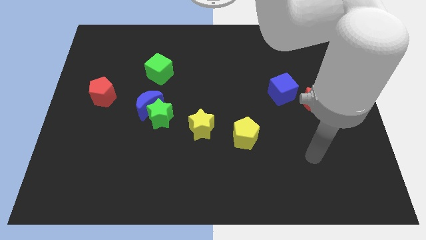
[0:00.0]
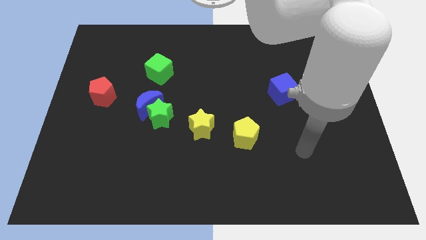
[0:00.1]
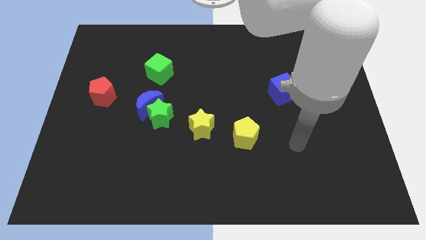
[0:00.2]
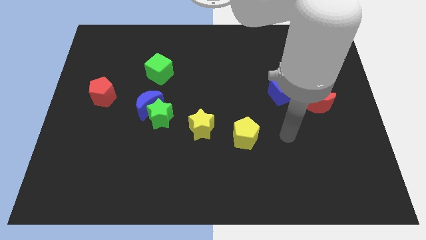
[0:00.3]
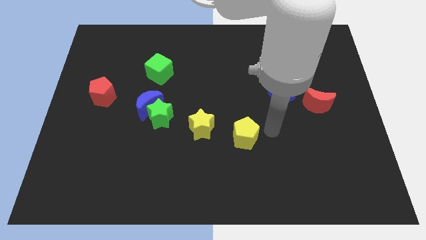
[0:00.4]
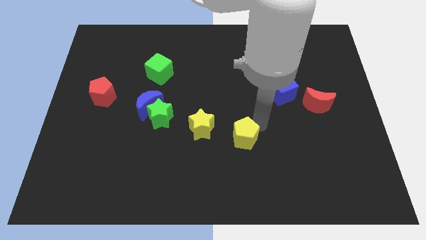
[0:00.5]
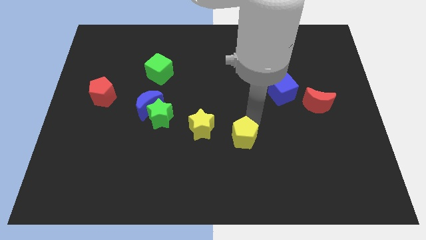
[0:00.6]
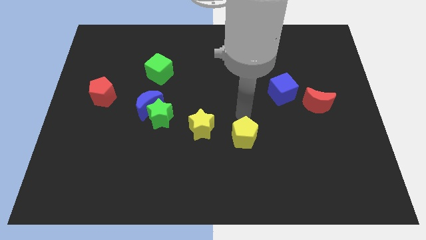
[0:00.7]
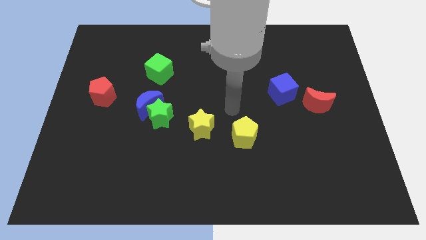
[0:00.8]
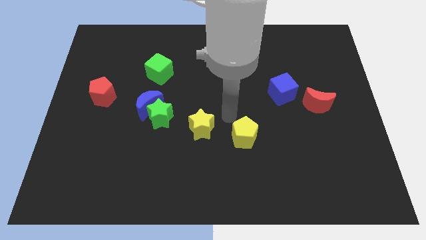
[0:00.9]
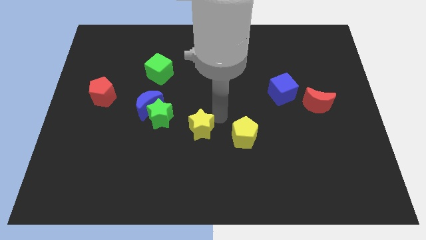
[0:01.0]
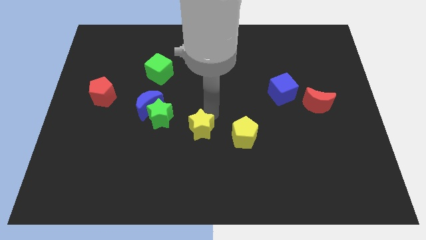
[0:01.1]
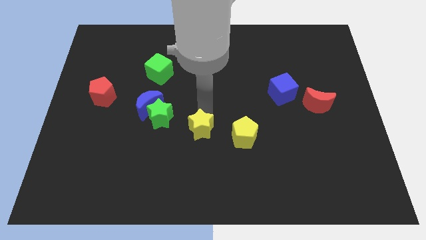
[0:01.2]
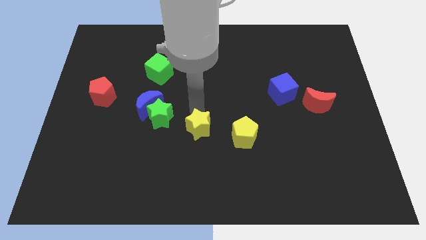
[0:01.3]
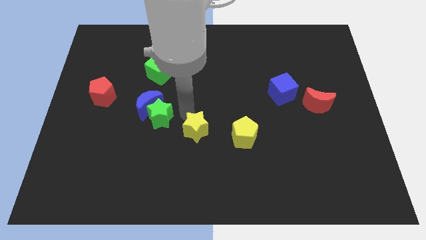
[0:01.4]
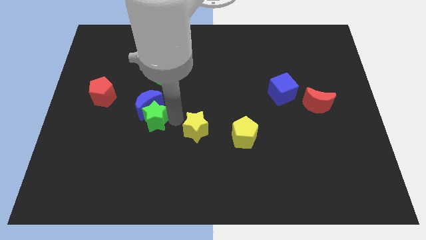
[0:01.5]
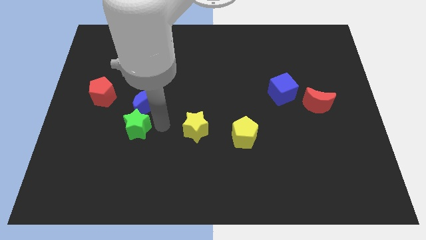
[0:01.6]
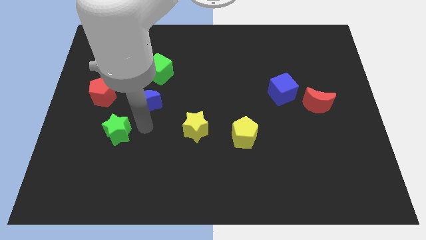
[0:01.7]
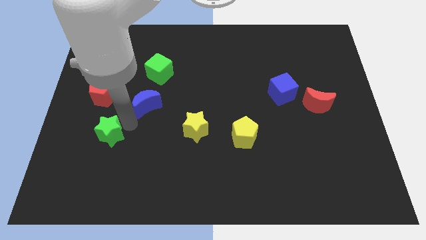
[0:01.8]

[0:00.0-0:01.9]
separate the blue moon from the green star

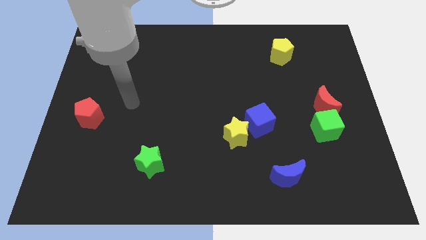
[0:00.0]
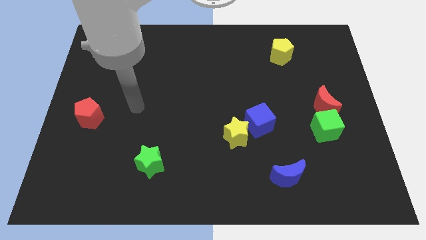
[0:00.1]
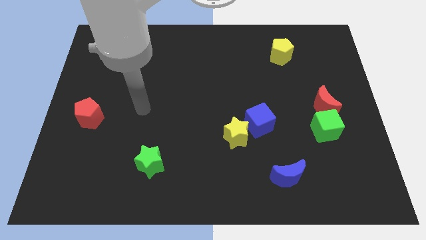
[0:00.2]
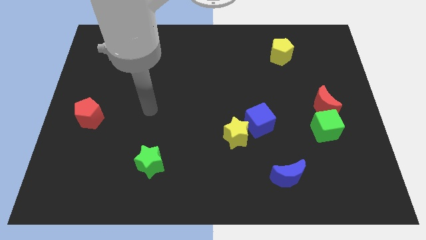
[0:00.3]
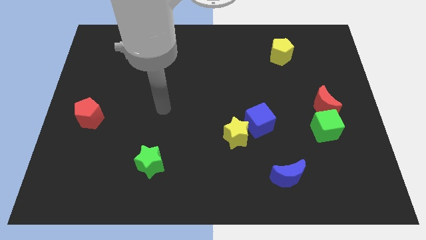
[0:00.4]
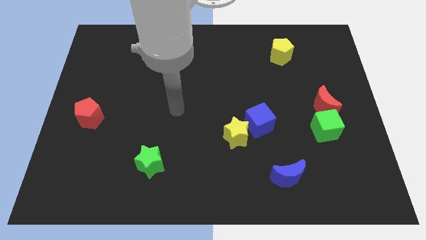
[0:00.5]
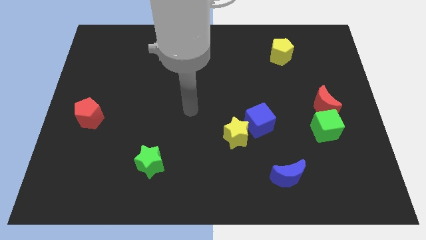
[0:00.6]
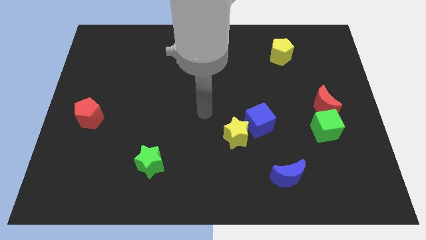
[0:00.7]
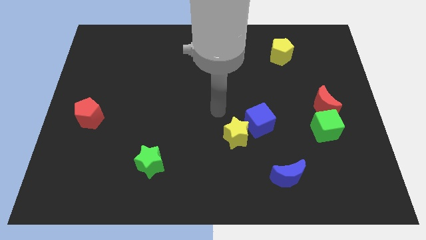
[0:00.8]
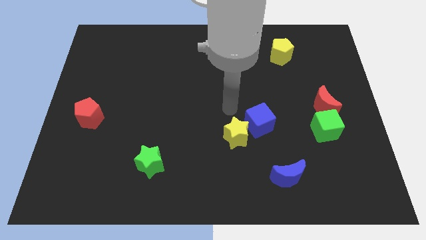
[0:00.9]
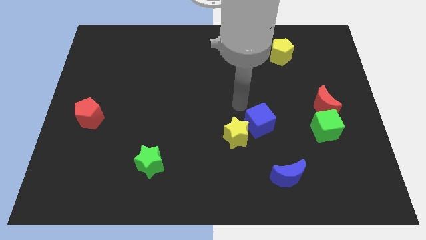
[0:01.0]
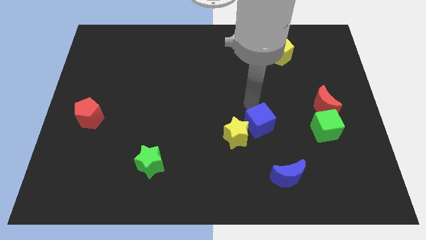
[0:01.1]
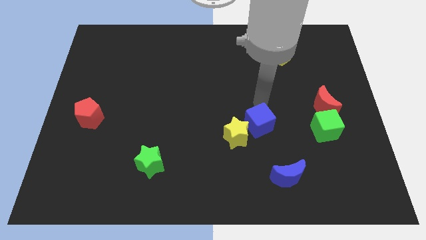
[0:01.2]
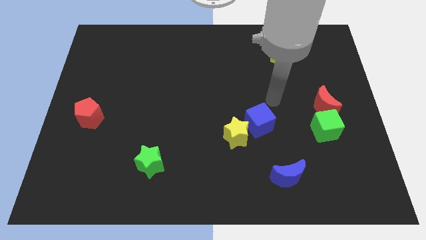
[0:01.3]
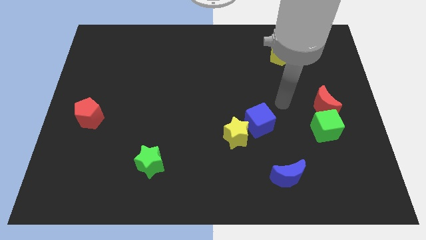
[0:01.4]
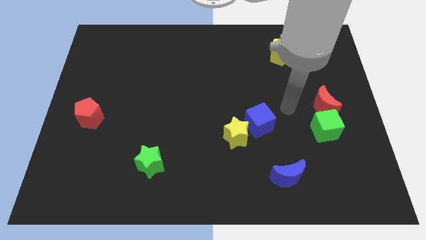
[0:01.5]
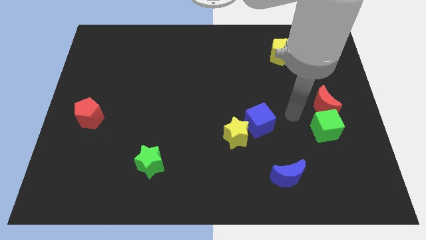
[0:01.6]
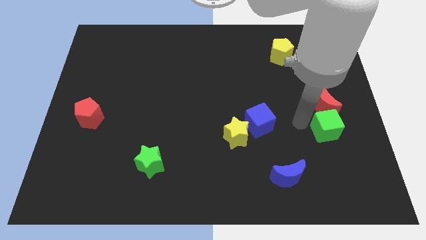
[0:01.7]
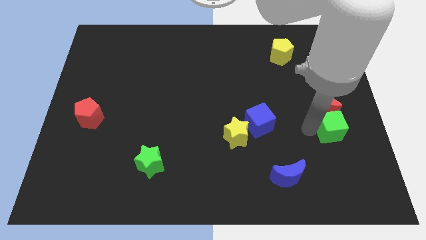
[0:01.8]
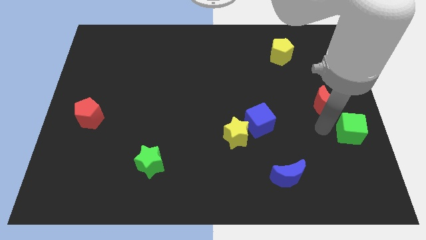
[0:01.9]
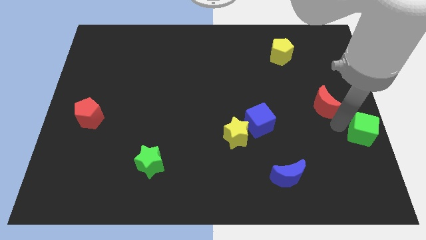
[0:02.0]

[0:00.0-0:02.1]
pull the red moon apart from the green cube

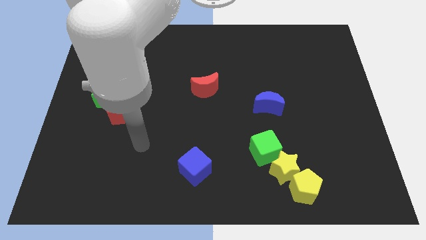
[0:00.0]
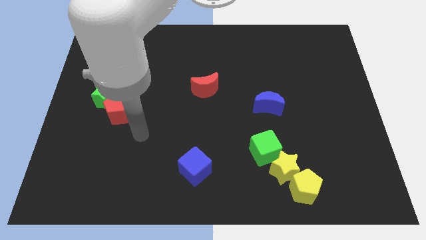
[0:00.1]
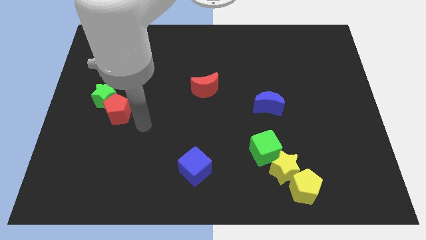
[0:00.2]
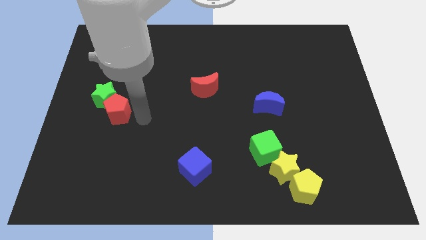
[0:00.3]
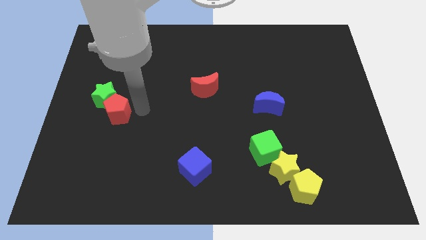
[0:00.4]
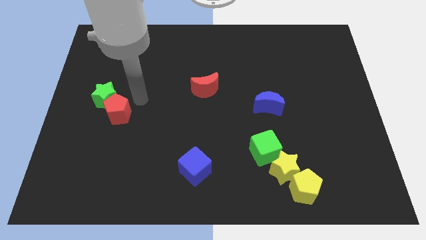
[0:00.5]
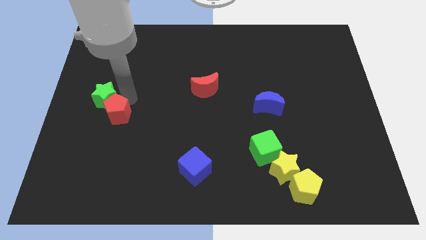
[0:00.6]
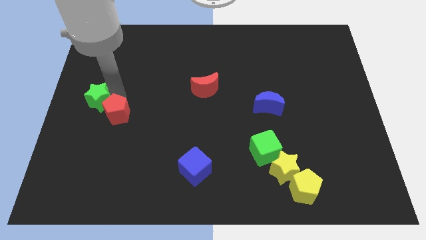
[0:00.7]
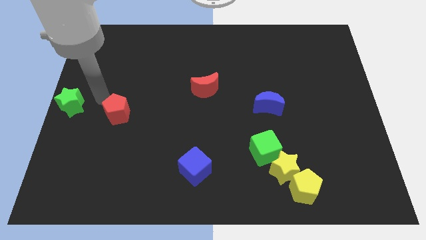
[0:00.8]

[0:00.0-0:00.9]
pull the red pentagon apart from the green star

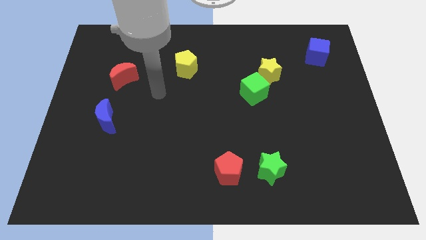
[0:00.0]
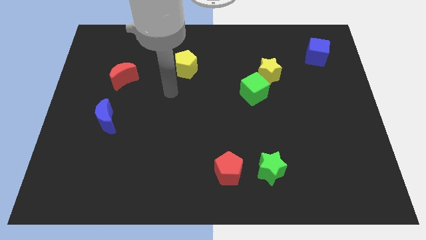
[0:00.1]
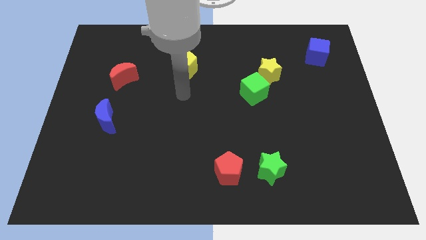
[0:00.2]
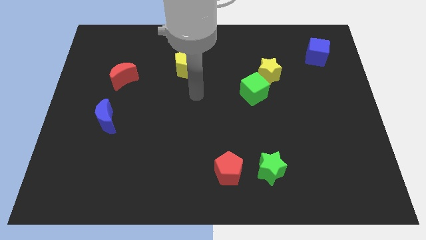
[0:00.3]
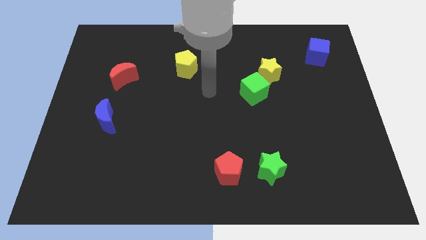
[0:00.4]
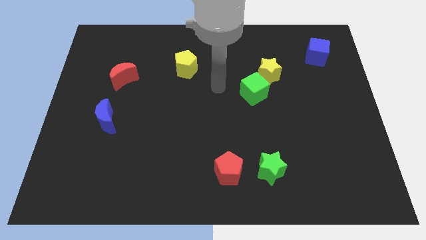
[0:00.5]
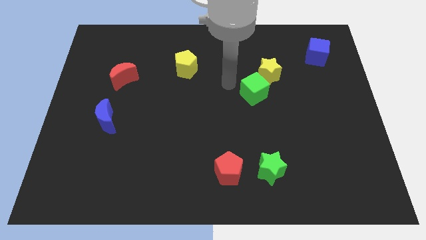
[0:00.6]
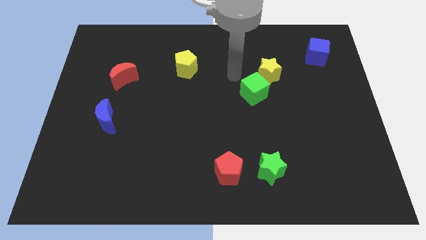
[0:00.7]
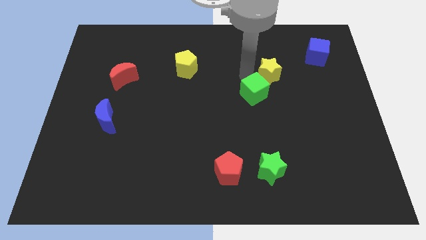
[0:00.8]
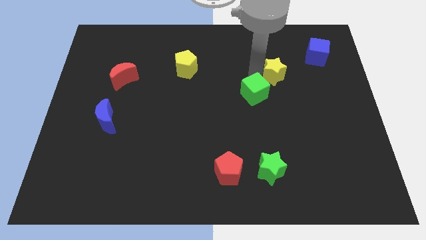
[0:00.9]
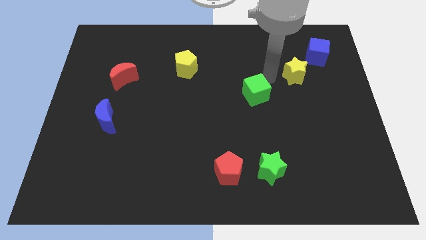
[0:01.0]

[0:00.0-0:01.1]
separate the green cube from the yellow star

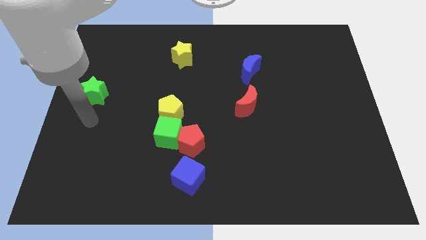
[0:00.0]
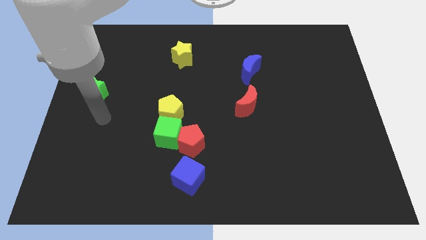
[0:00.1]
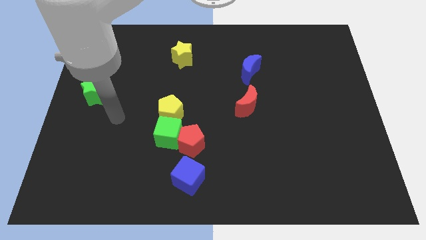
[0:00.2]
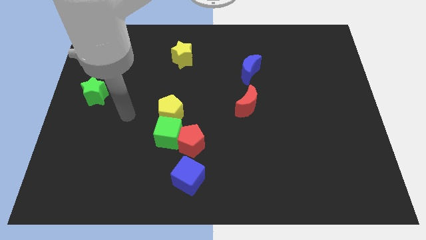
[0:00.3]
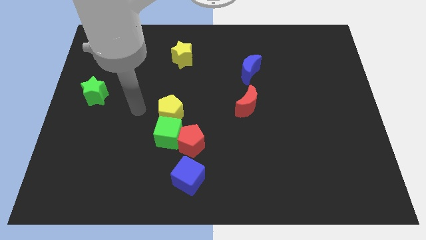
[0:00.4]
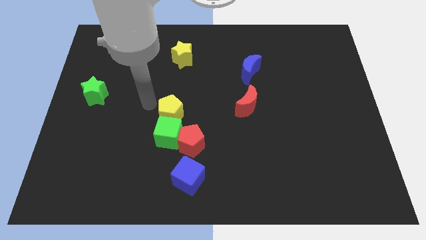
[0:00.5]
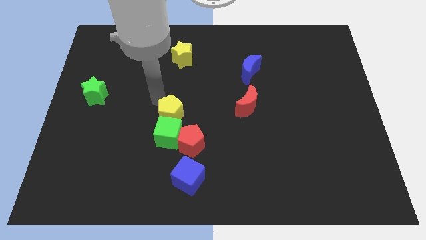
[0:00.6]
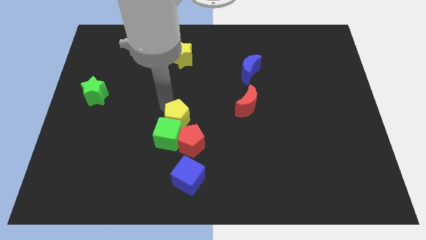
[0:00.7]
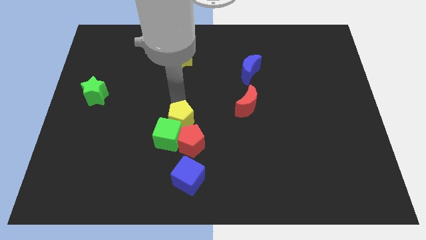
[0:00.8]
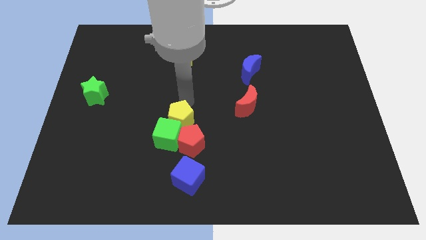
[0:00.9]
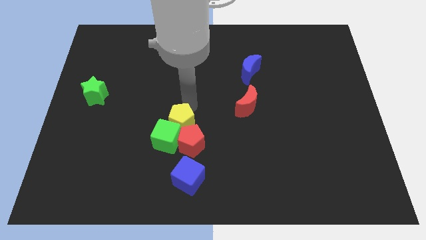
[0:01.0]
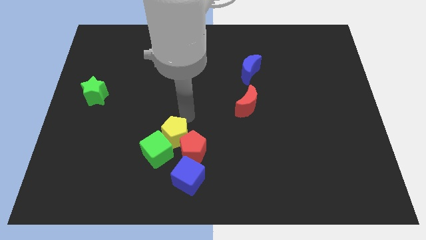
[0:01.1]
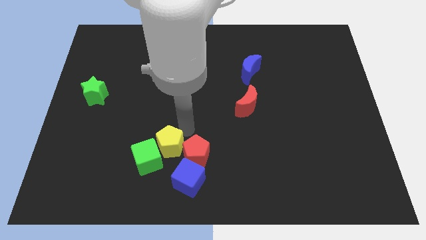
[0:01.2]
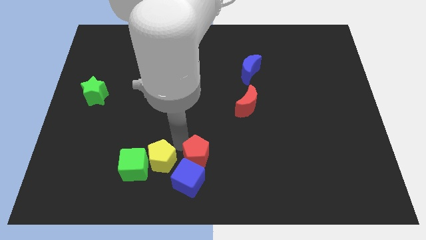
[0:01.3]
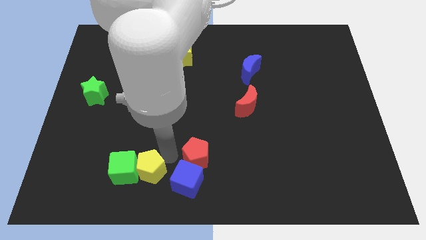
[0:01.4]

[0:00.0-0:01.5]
pull the green cube apart from the red pentagon and yellow pentagon

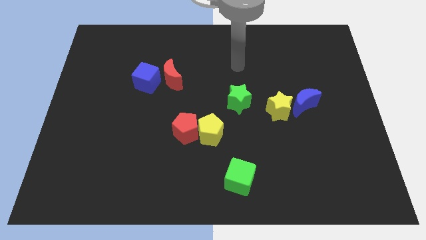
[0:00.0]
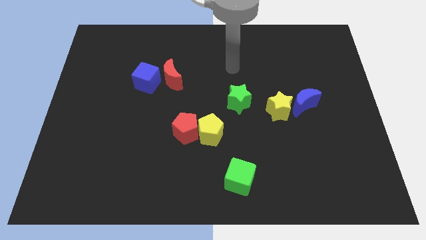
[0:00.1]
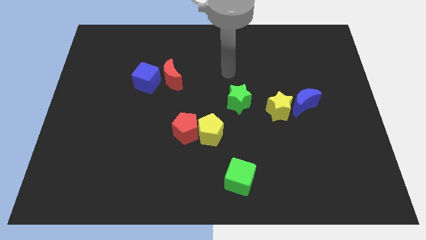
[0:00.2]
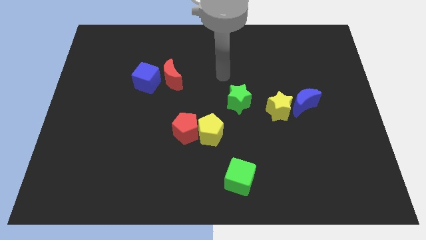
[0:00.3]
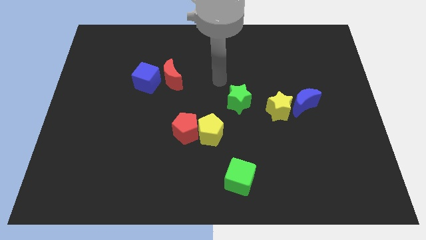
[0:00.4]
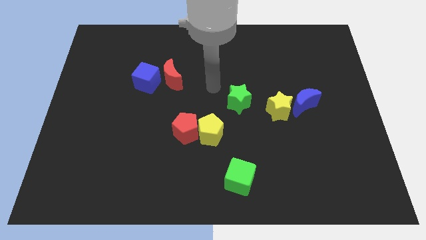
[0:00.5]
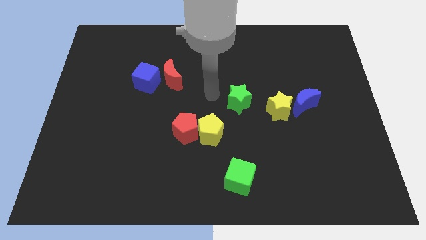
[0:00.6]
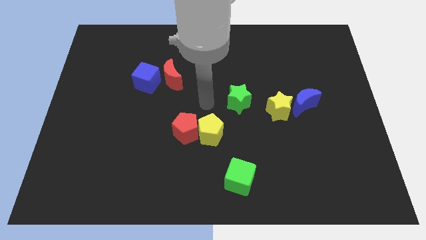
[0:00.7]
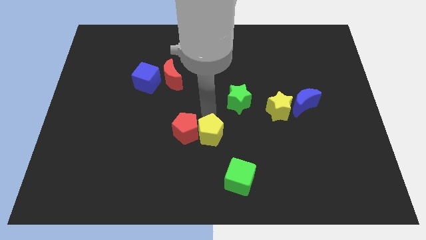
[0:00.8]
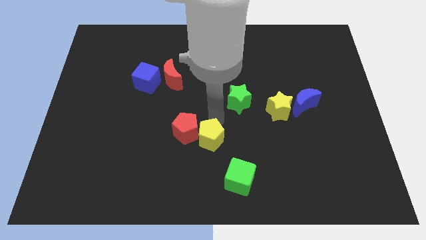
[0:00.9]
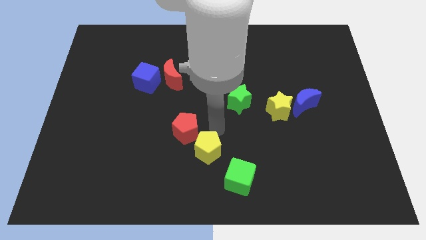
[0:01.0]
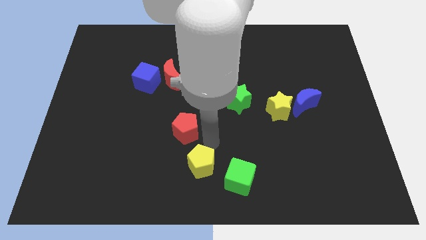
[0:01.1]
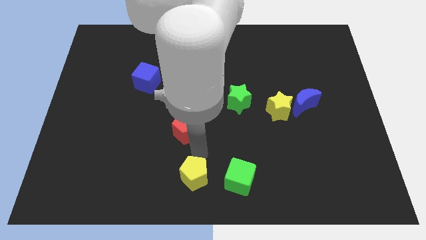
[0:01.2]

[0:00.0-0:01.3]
move the red pentagon away from the yellow pentagon

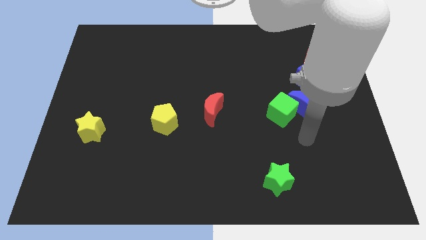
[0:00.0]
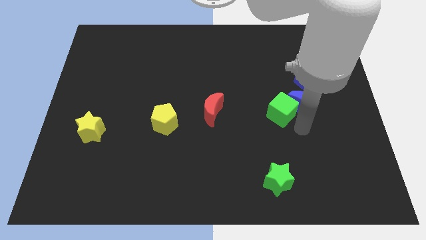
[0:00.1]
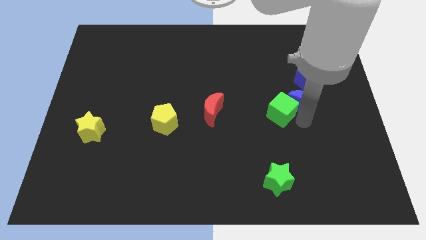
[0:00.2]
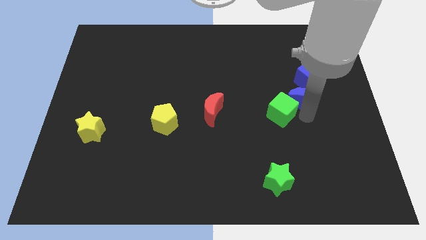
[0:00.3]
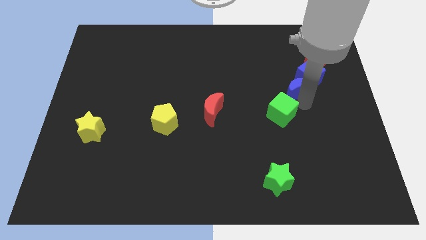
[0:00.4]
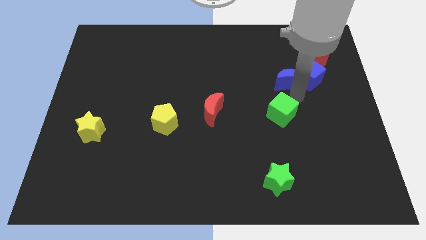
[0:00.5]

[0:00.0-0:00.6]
move the green cube away from the blue moon

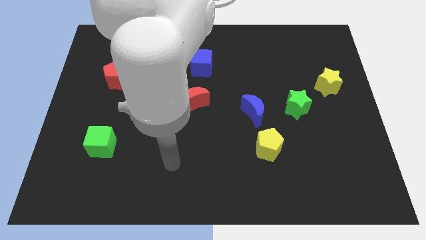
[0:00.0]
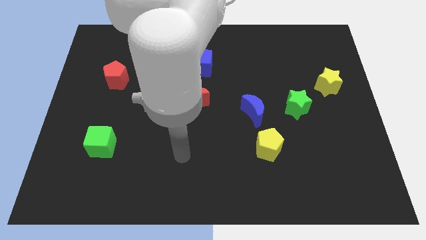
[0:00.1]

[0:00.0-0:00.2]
move the yellow pentagon away from the blue moon
